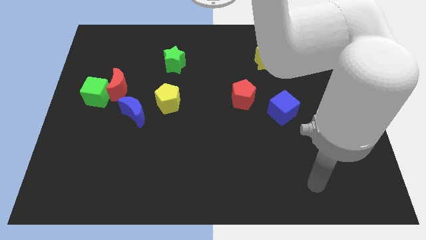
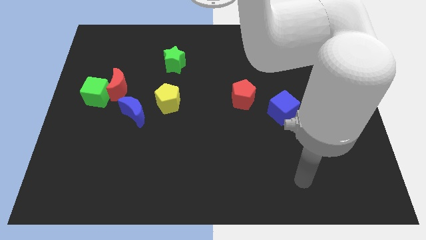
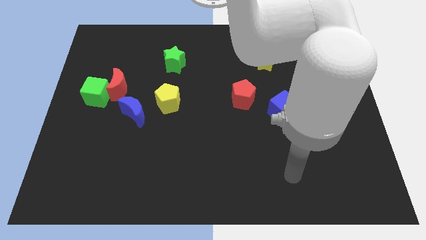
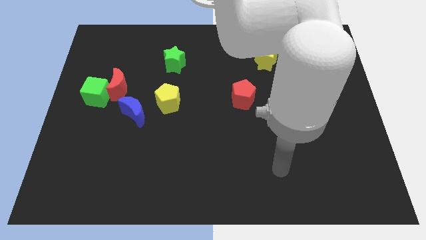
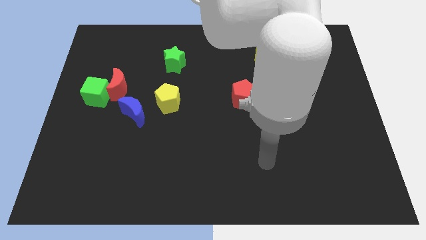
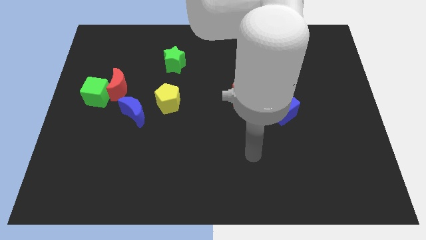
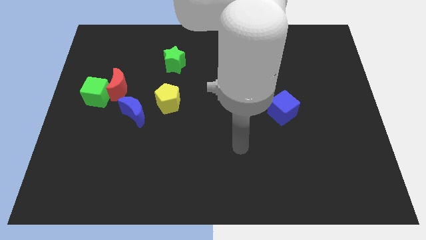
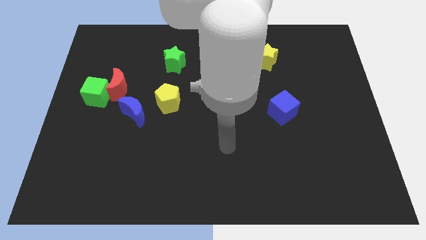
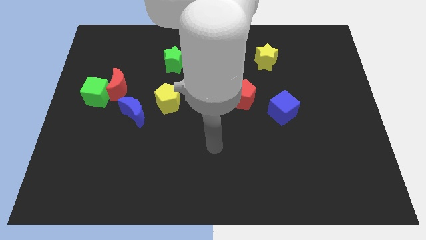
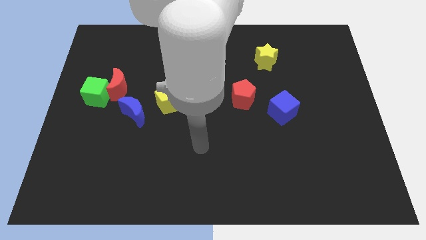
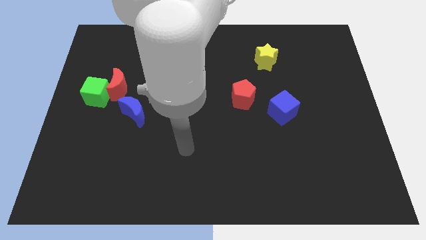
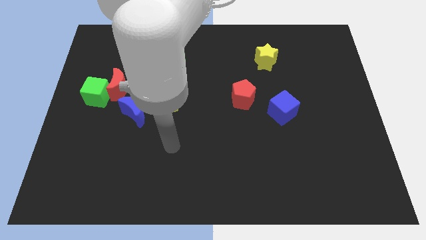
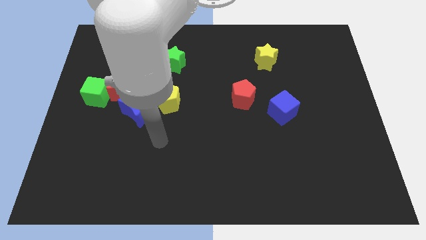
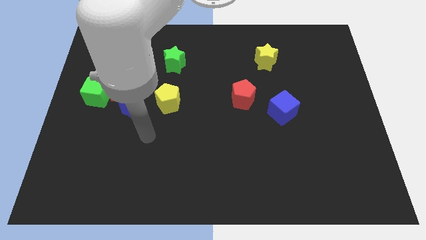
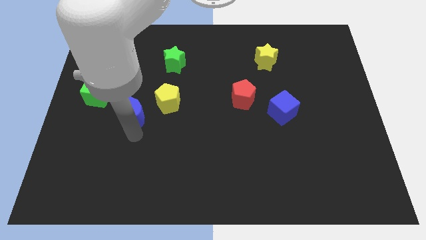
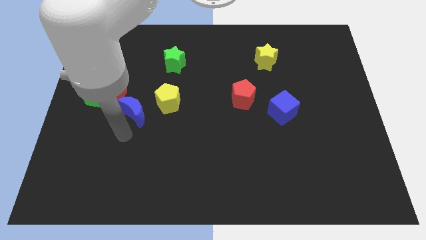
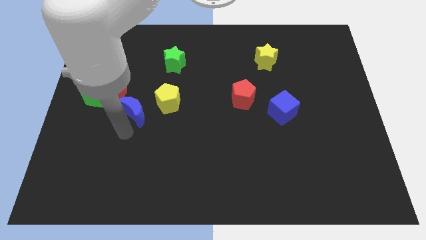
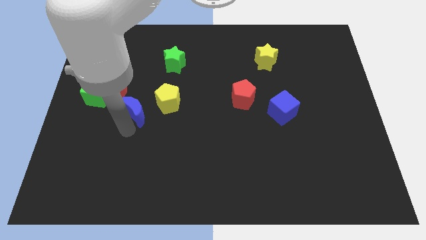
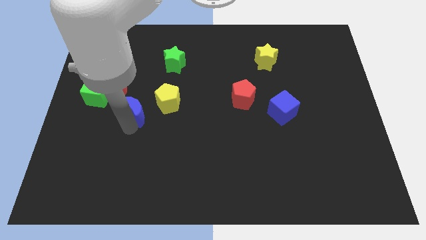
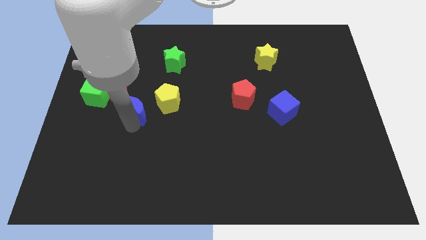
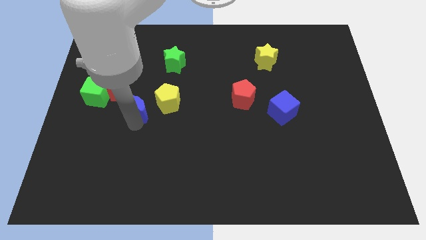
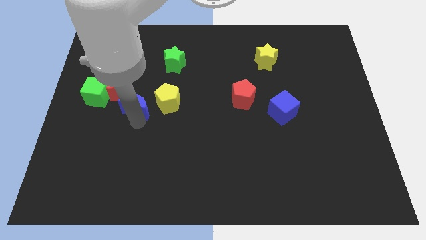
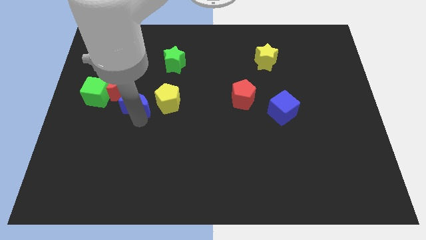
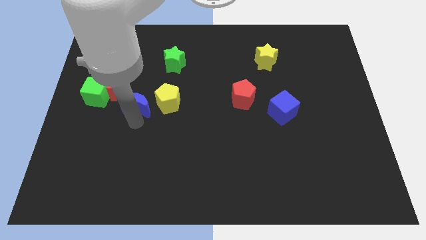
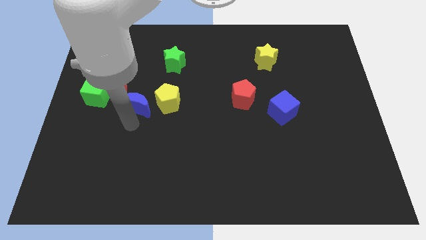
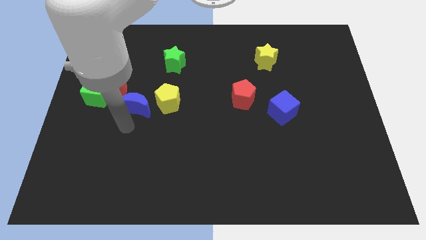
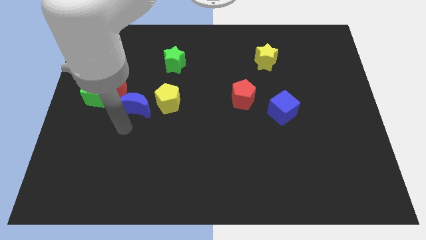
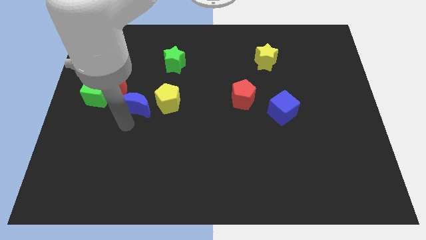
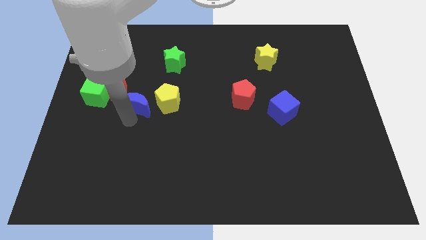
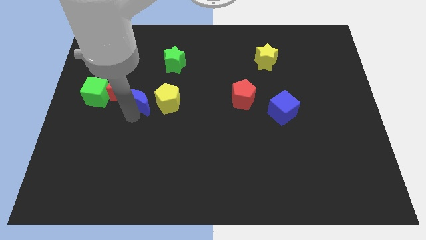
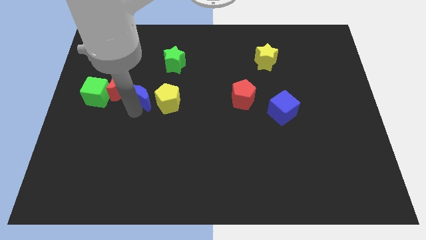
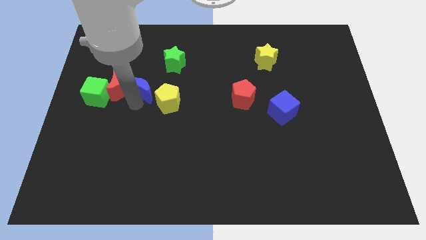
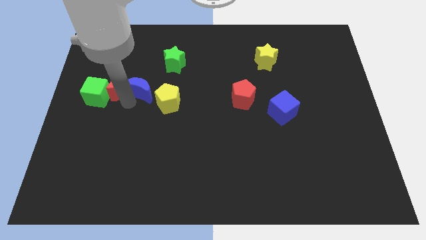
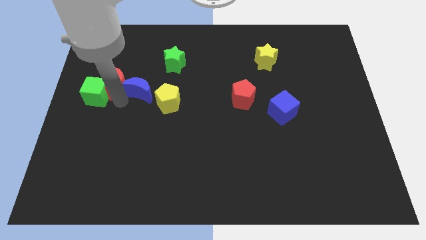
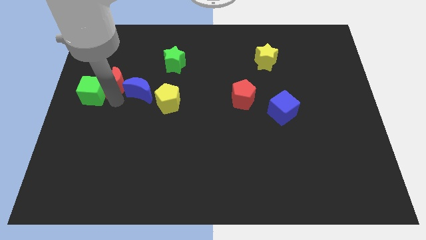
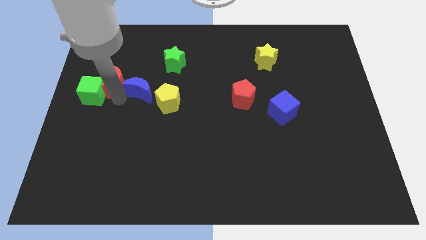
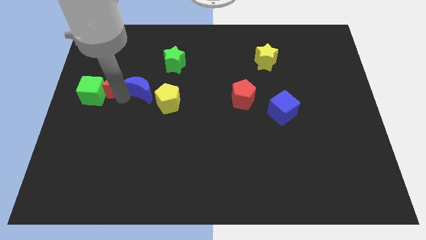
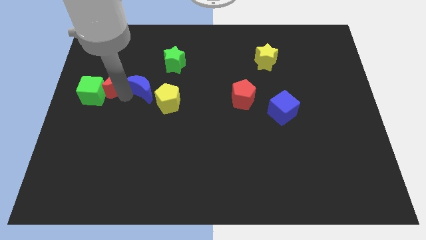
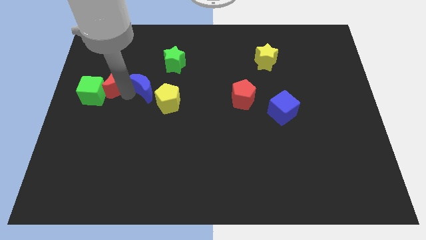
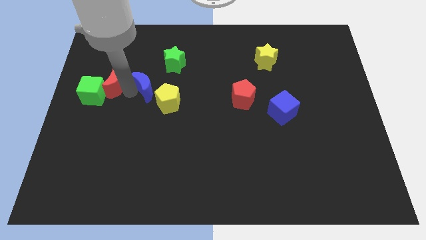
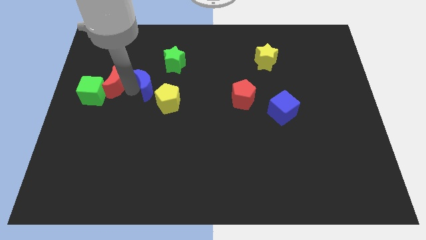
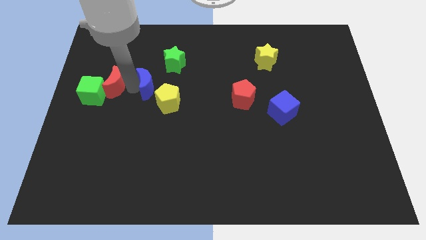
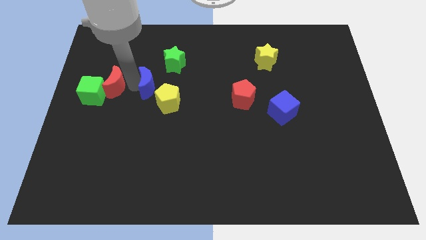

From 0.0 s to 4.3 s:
push the blue moon a bit up and right

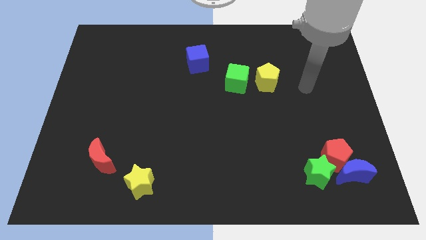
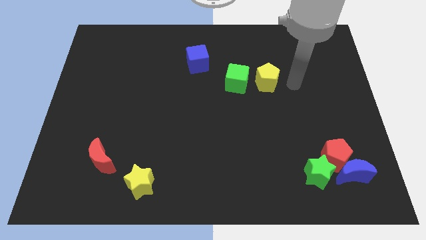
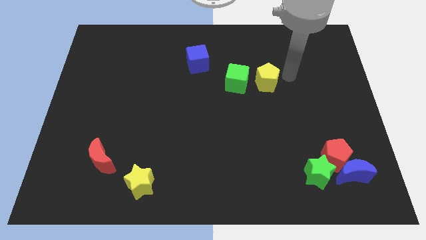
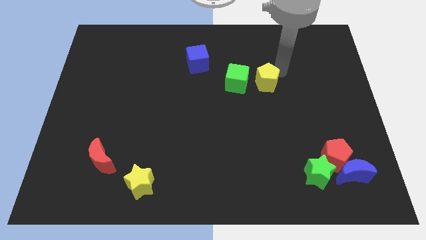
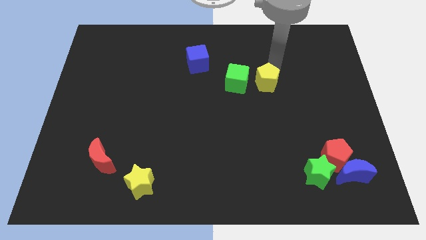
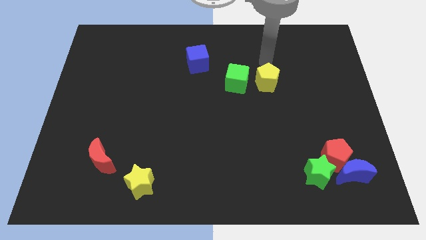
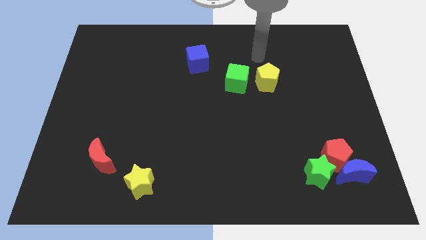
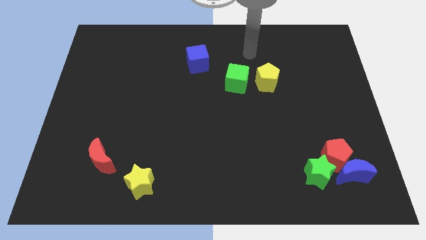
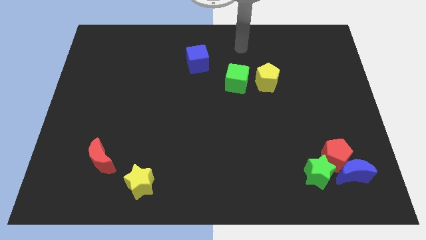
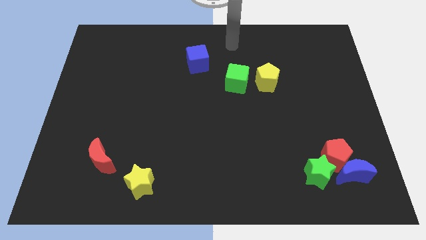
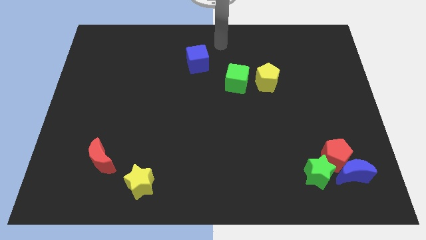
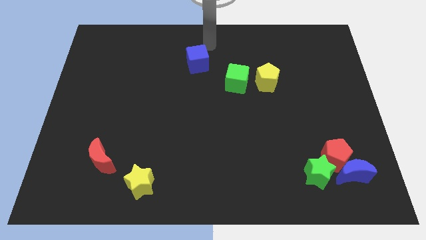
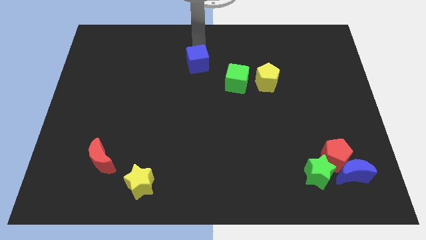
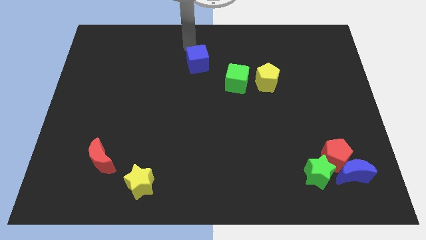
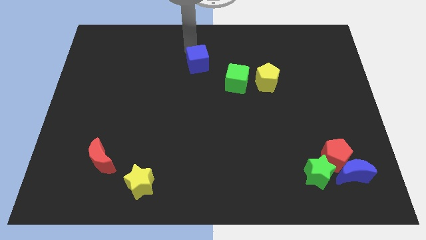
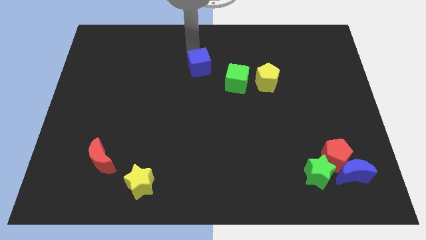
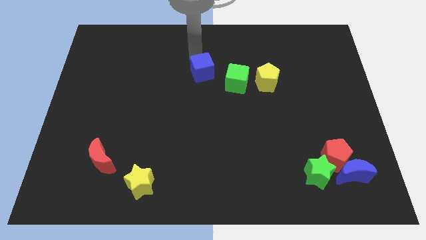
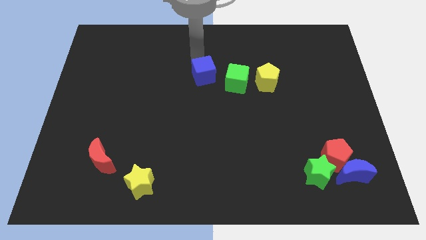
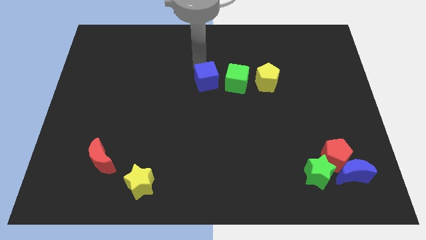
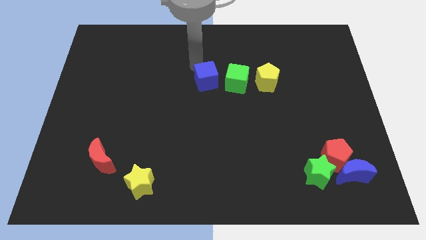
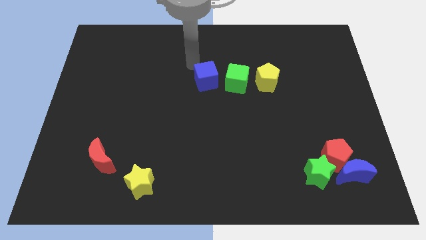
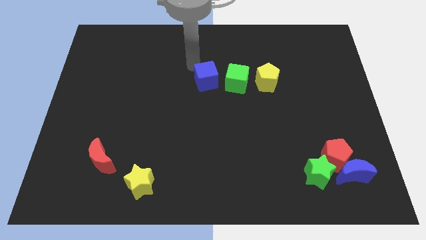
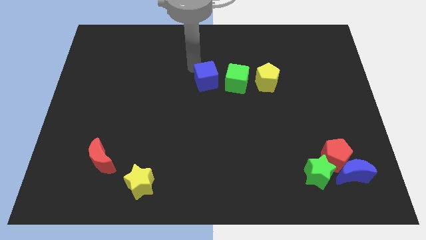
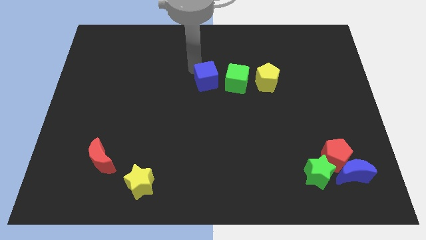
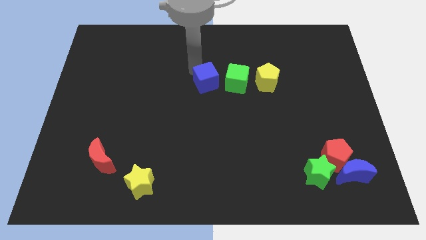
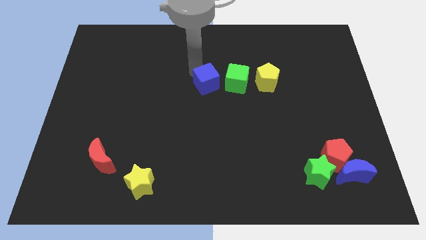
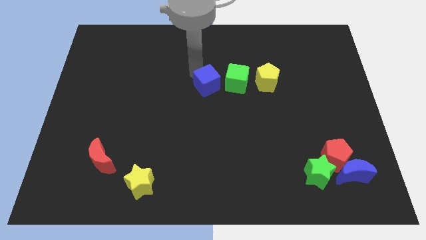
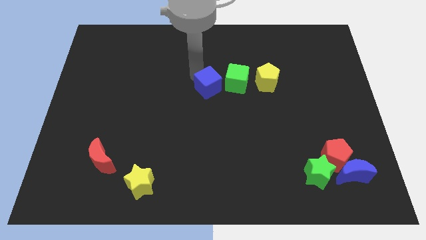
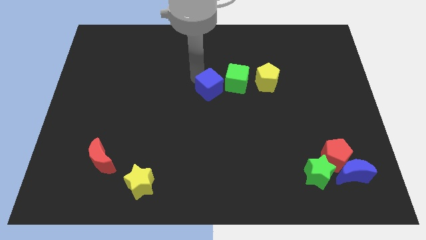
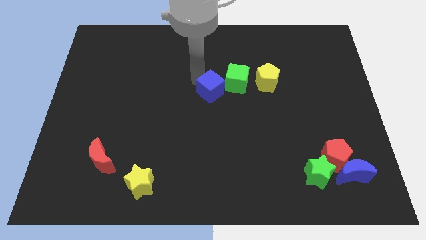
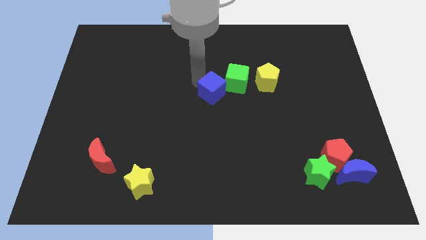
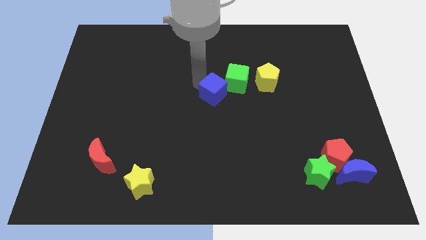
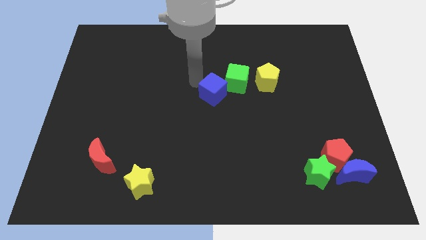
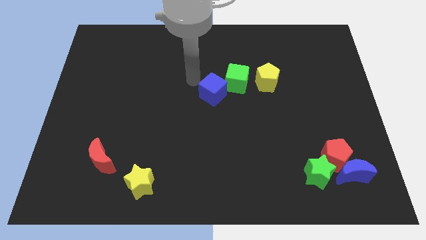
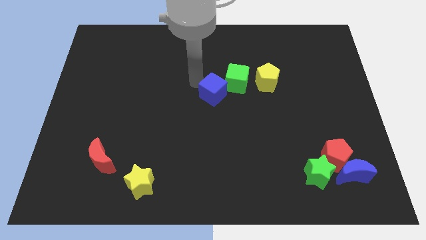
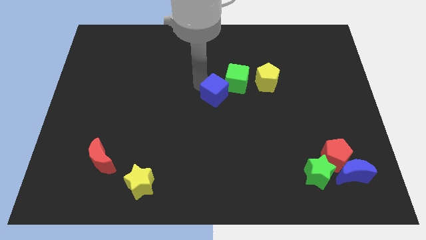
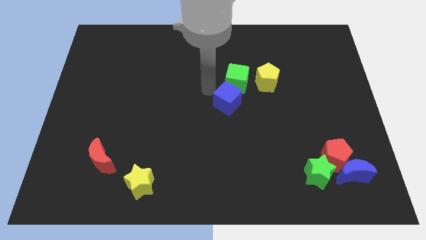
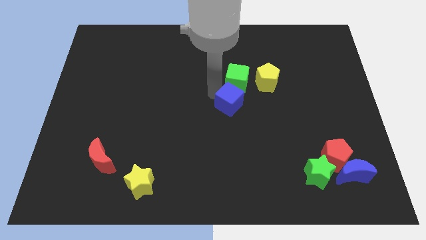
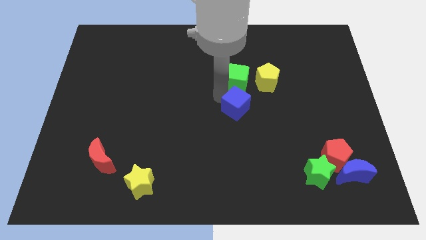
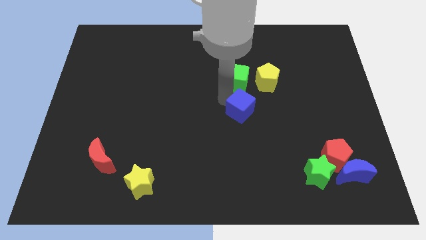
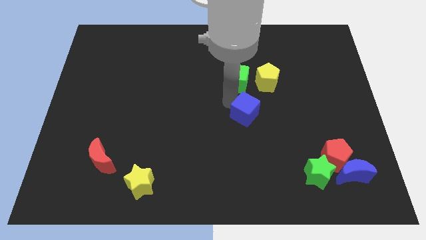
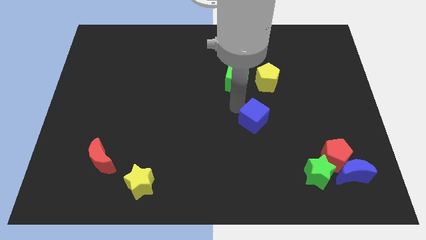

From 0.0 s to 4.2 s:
push the blue cube down and then to the right
